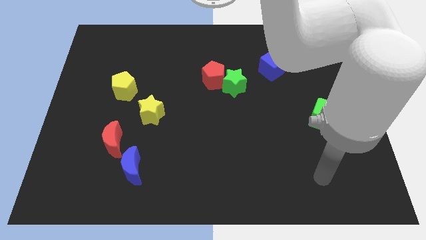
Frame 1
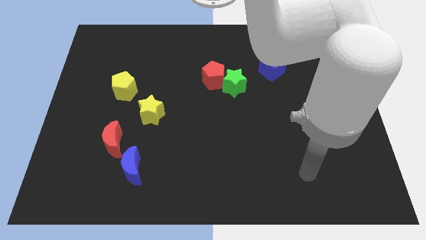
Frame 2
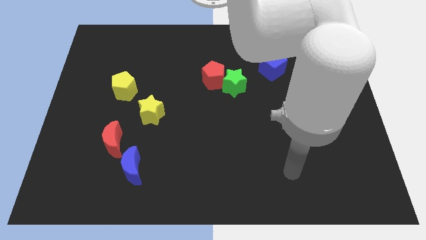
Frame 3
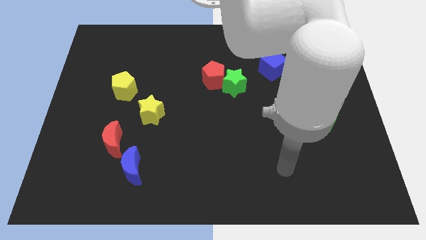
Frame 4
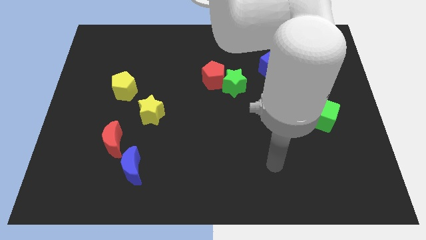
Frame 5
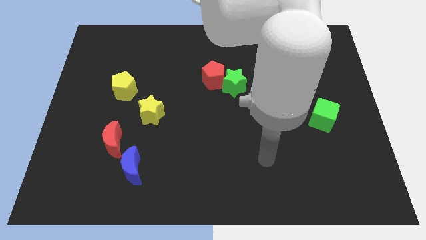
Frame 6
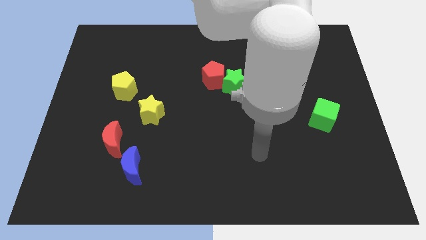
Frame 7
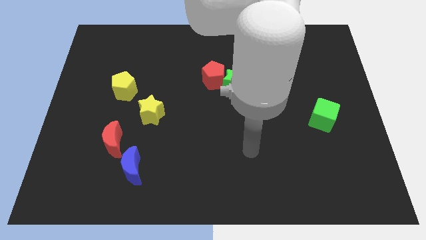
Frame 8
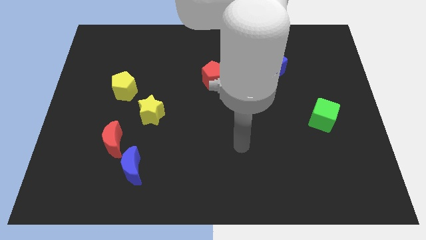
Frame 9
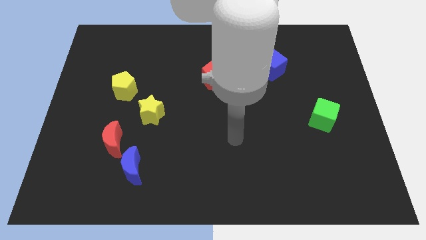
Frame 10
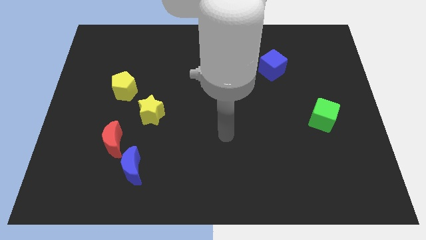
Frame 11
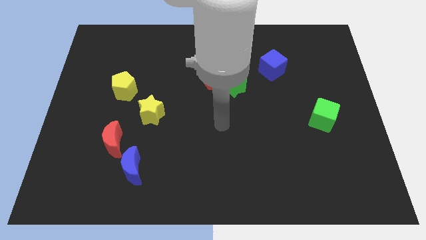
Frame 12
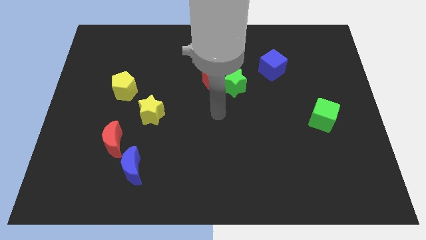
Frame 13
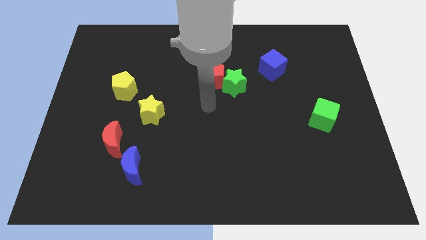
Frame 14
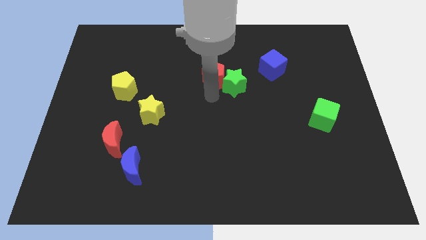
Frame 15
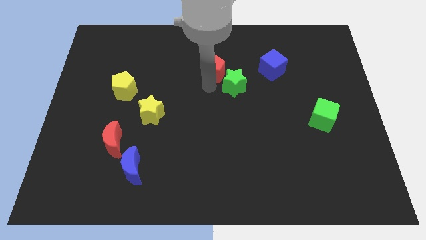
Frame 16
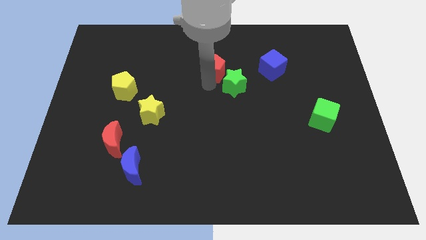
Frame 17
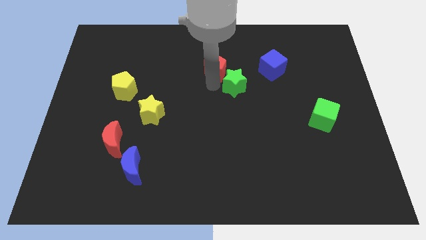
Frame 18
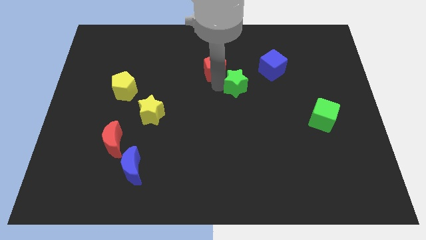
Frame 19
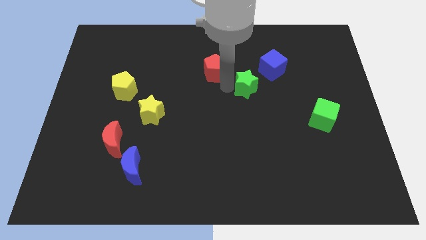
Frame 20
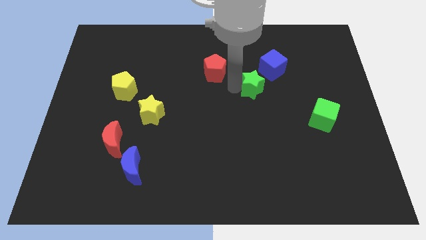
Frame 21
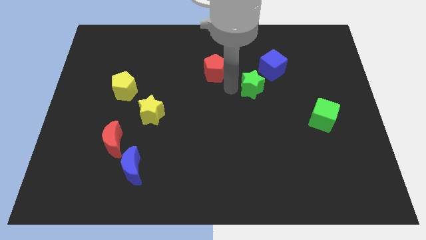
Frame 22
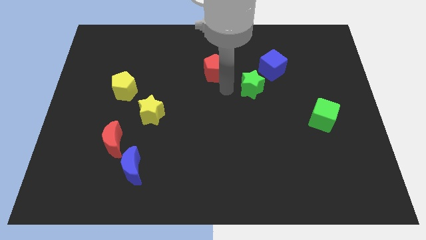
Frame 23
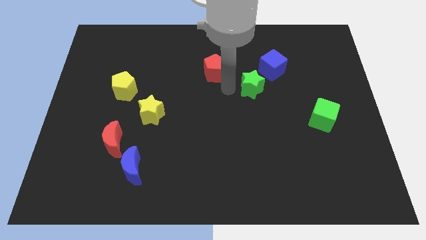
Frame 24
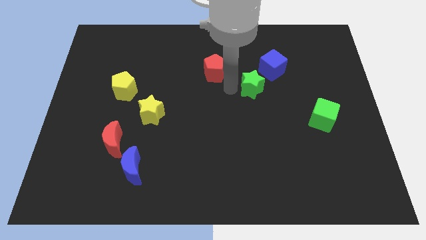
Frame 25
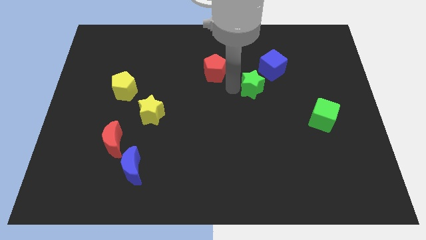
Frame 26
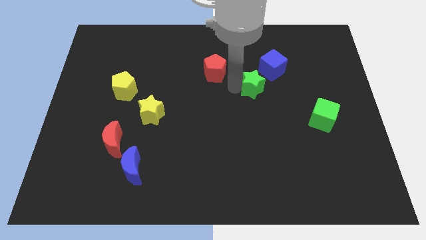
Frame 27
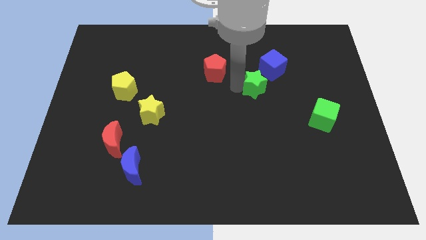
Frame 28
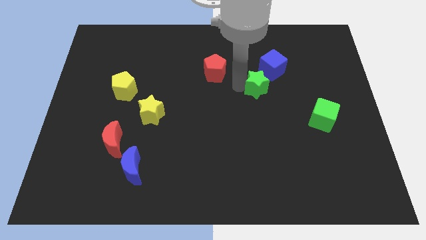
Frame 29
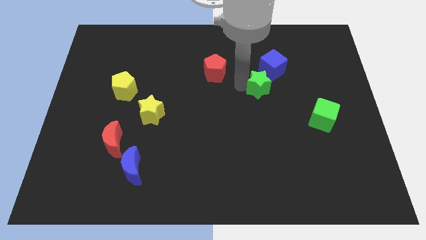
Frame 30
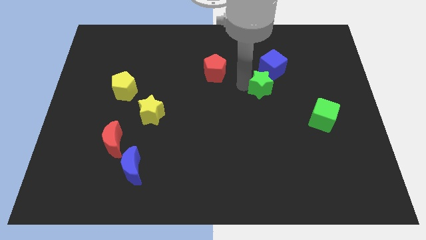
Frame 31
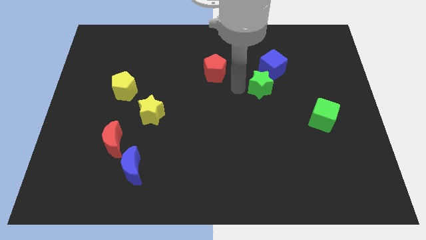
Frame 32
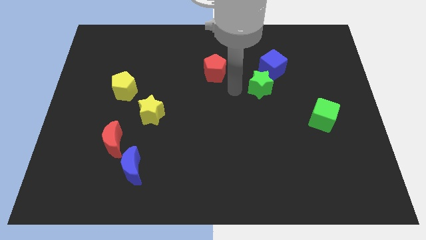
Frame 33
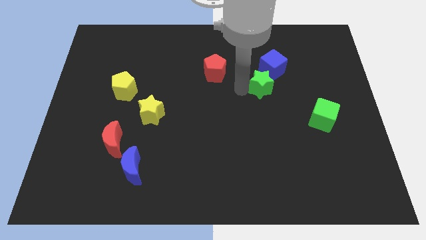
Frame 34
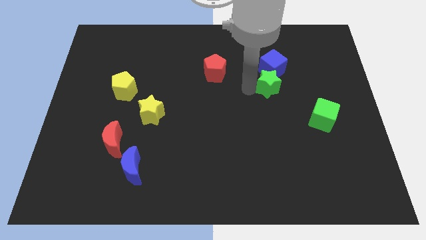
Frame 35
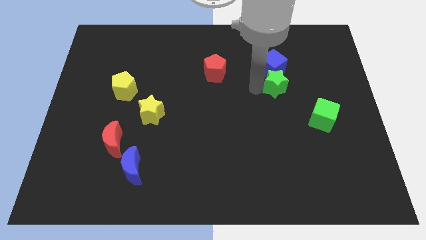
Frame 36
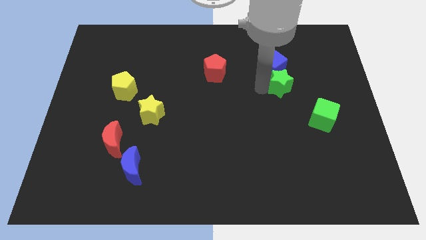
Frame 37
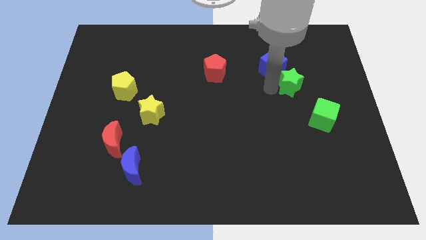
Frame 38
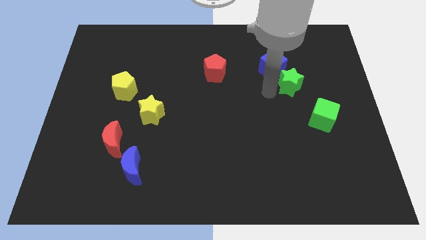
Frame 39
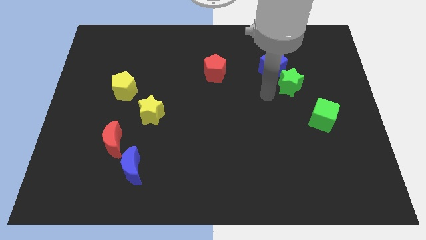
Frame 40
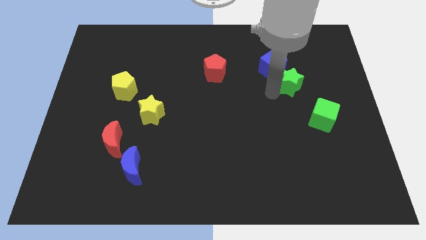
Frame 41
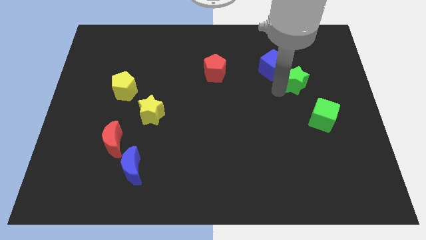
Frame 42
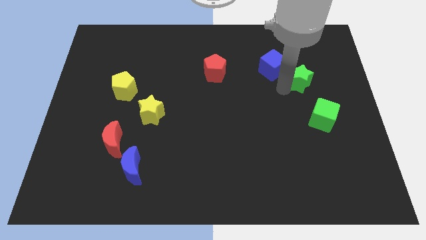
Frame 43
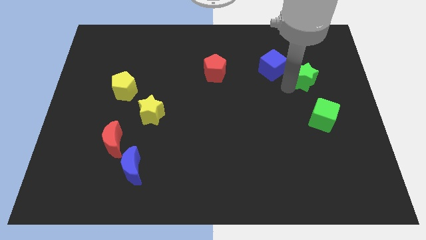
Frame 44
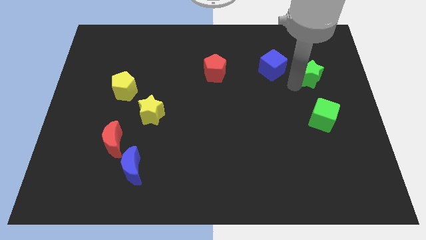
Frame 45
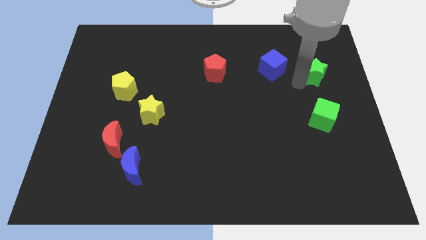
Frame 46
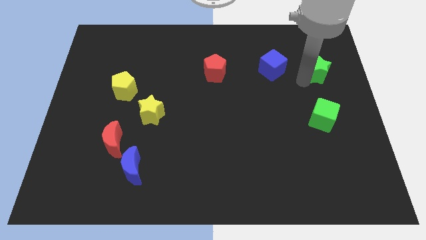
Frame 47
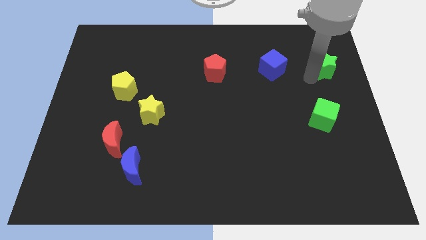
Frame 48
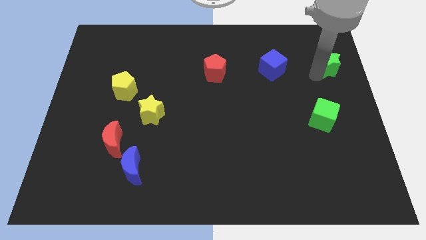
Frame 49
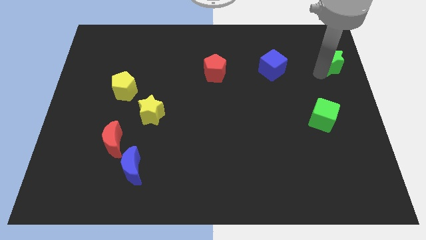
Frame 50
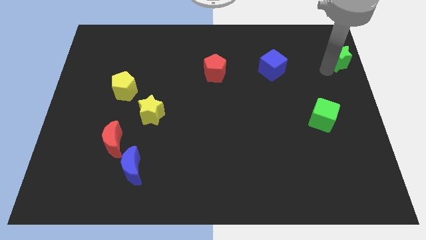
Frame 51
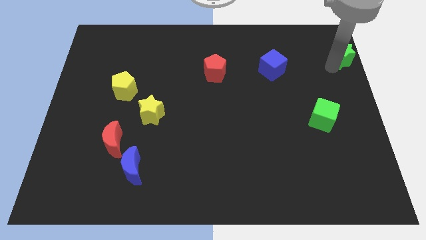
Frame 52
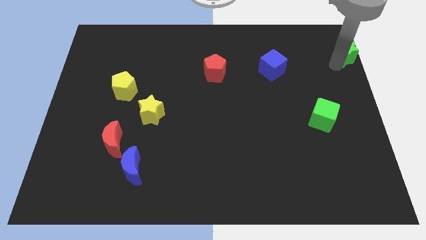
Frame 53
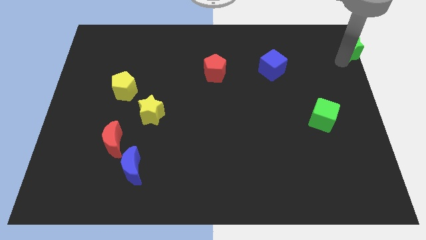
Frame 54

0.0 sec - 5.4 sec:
push the green star to the top right of the board

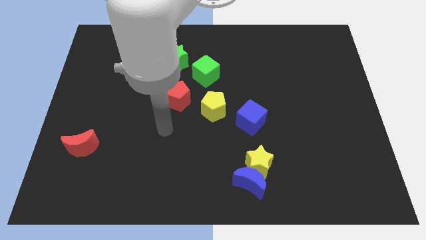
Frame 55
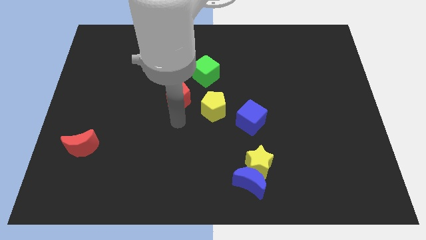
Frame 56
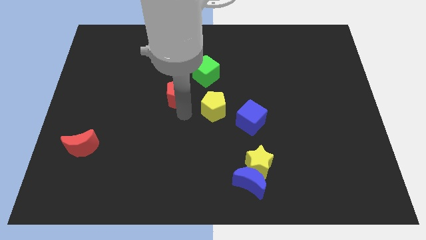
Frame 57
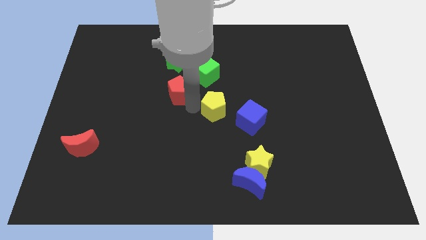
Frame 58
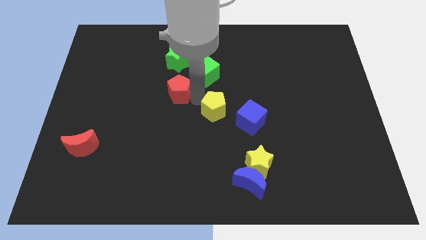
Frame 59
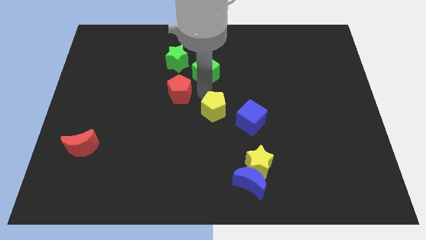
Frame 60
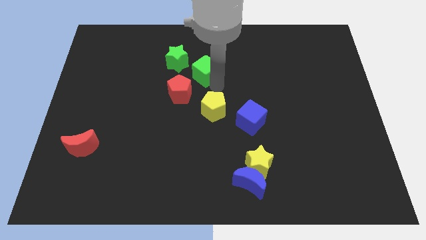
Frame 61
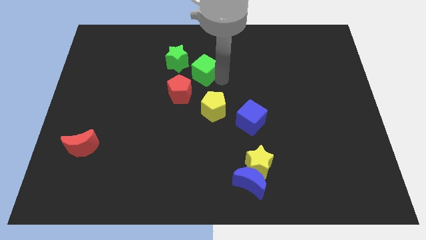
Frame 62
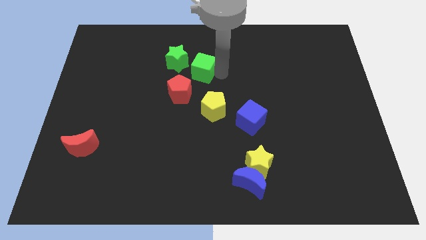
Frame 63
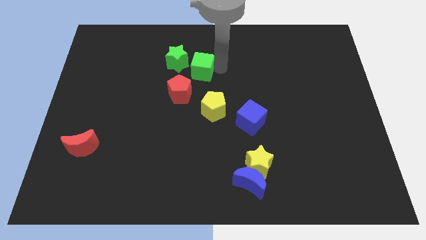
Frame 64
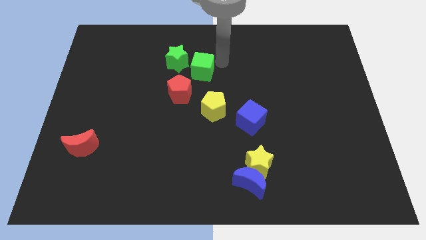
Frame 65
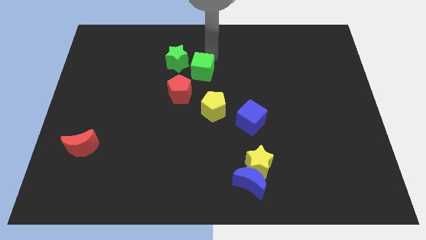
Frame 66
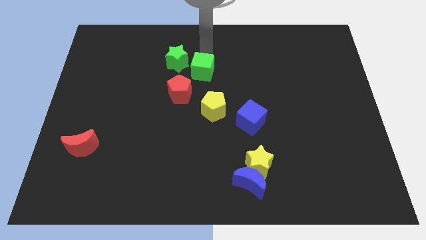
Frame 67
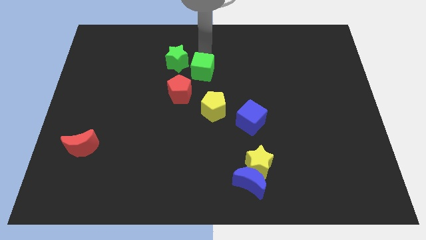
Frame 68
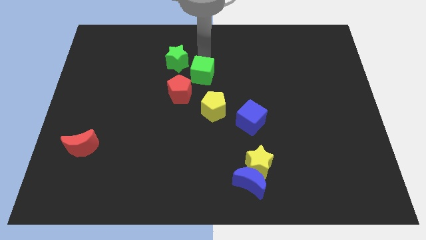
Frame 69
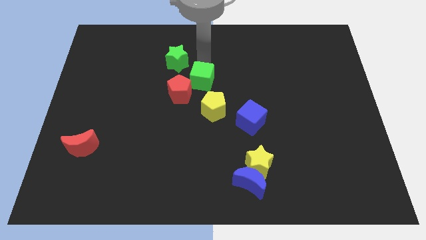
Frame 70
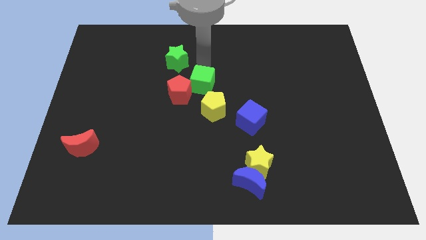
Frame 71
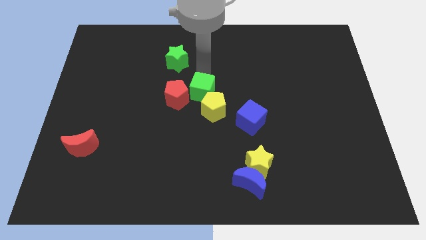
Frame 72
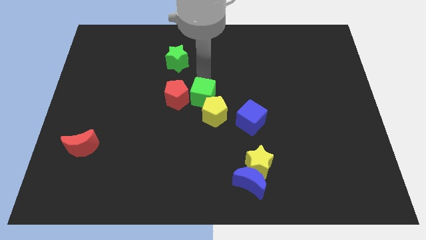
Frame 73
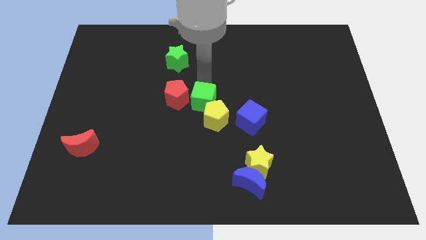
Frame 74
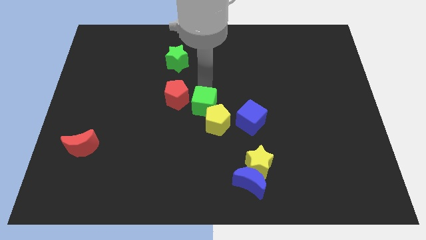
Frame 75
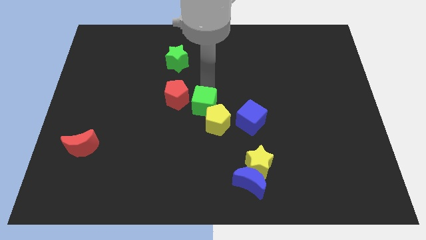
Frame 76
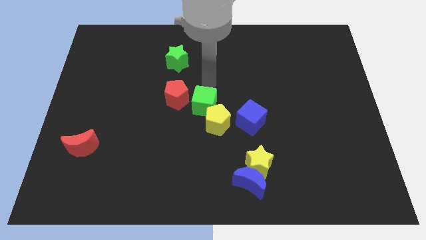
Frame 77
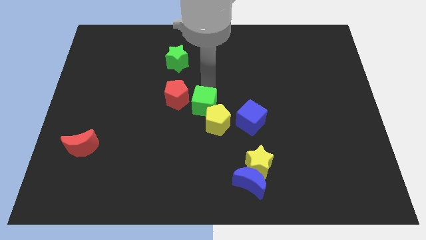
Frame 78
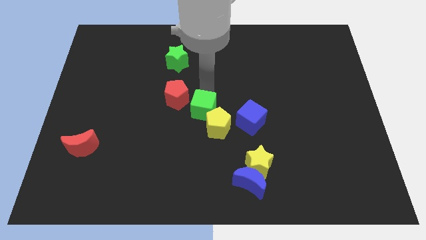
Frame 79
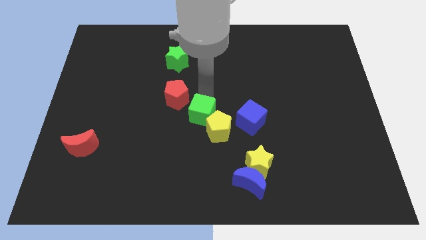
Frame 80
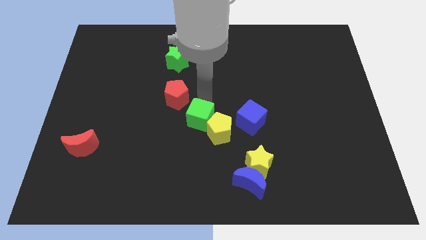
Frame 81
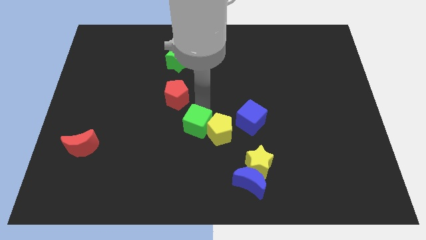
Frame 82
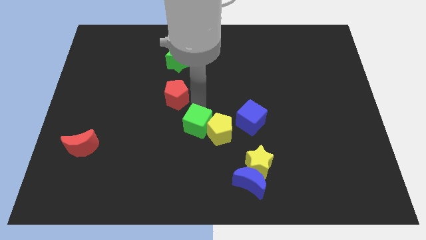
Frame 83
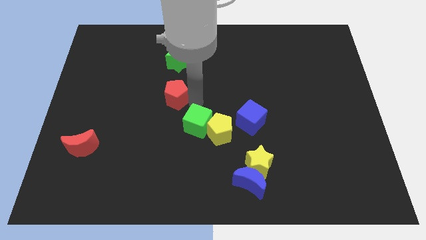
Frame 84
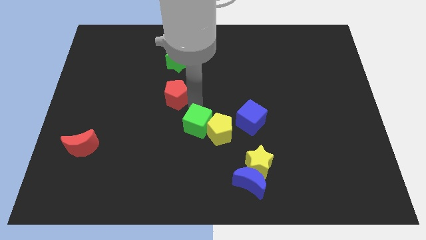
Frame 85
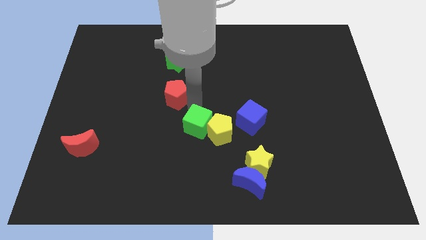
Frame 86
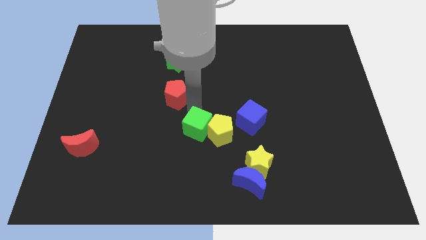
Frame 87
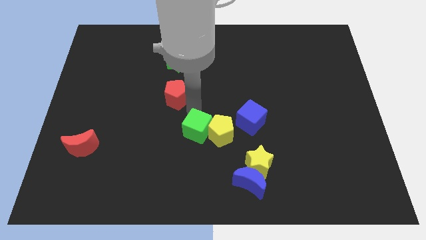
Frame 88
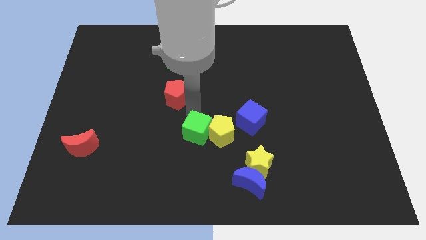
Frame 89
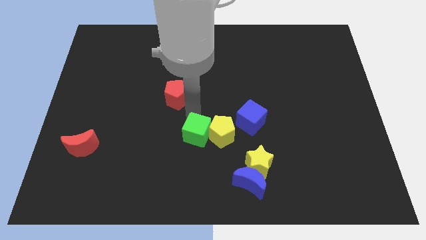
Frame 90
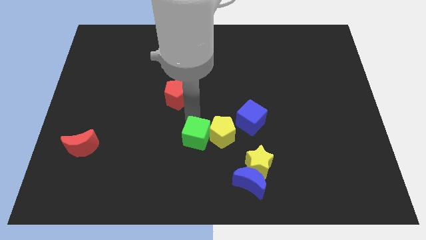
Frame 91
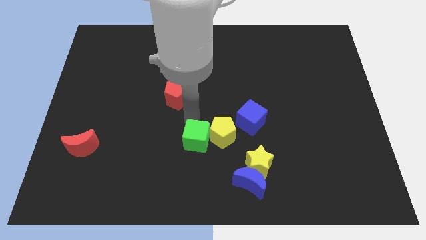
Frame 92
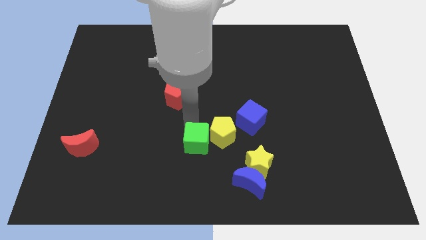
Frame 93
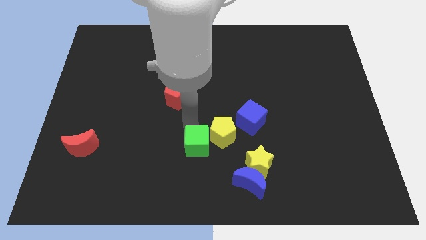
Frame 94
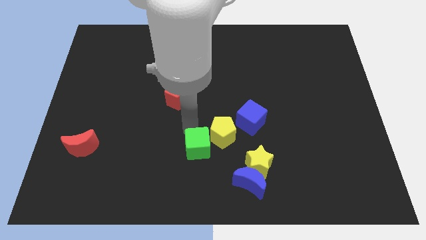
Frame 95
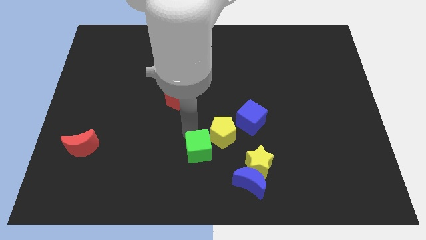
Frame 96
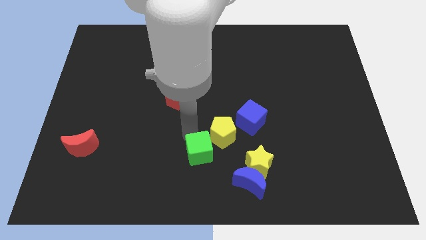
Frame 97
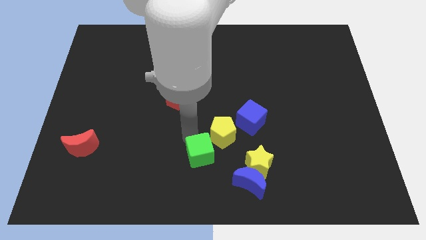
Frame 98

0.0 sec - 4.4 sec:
move the green cube to the bottom side
